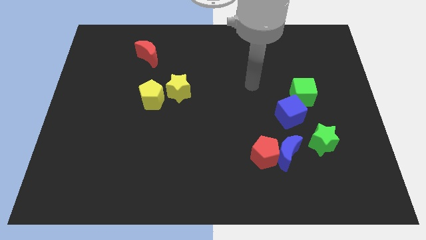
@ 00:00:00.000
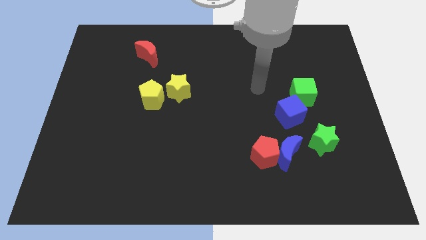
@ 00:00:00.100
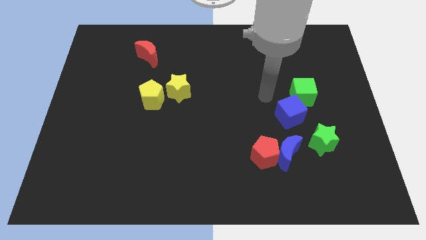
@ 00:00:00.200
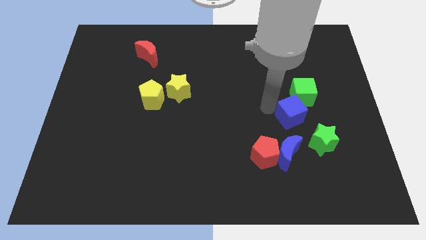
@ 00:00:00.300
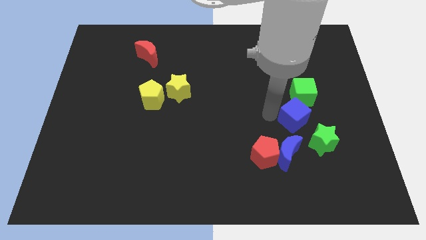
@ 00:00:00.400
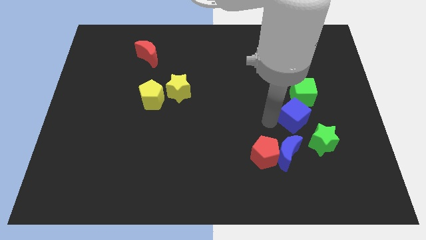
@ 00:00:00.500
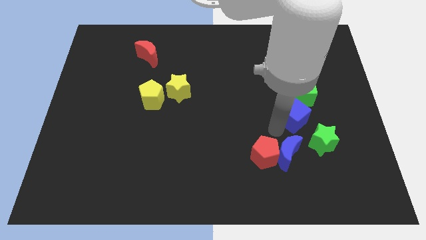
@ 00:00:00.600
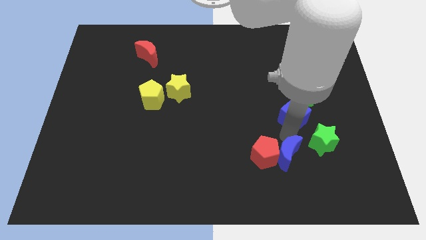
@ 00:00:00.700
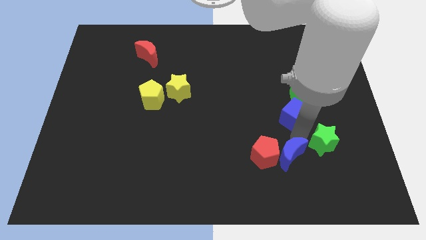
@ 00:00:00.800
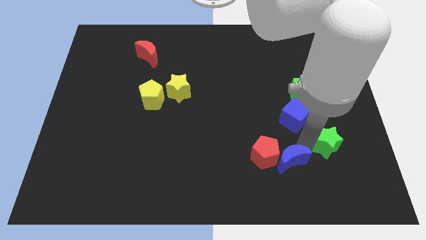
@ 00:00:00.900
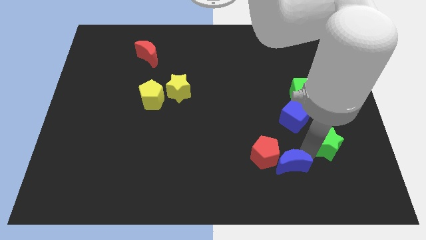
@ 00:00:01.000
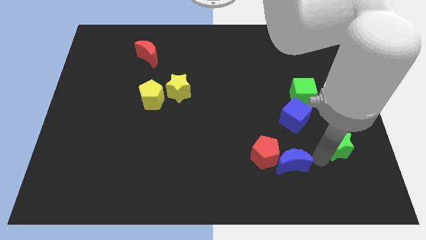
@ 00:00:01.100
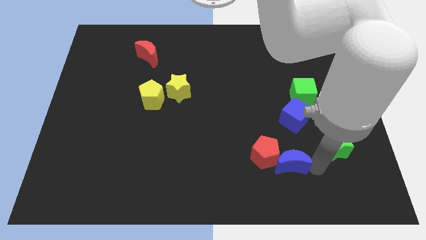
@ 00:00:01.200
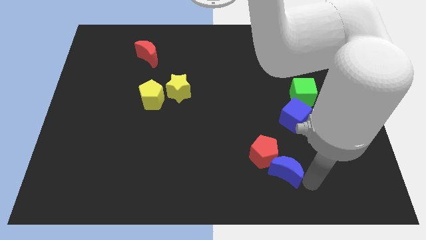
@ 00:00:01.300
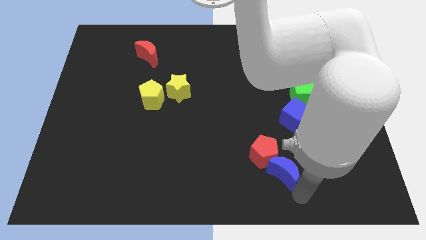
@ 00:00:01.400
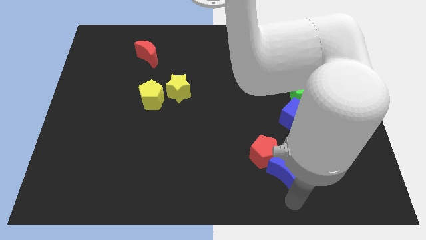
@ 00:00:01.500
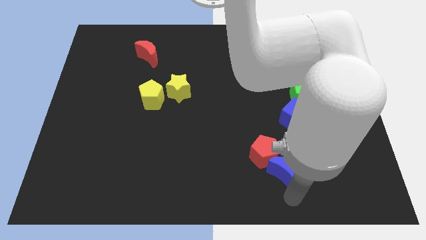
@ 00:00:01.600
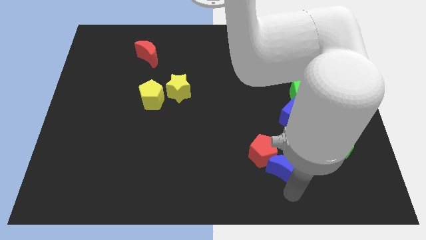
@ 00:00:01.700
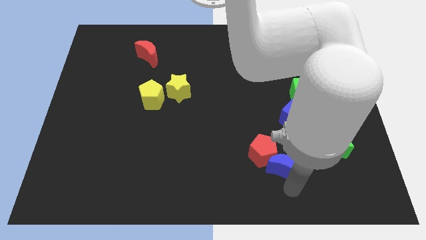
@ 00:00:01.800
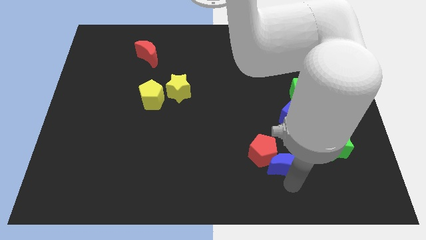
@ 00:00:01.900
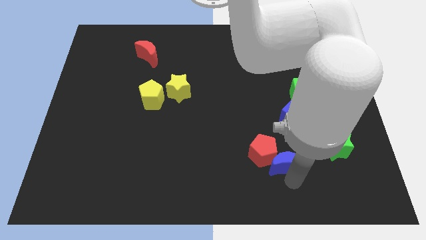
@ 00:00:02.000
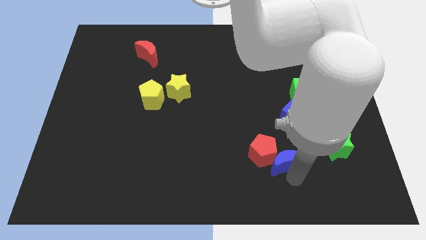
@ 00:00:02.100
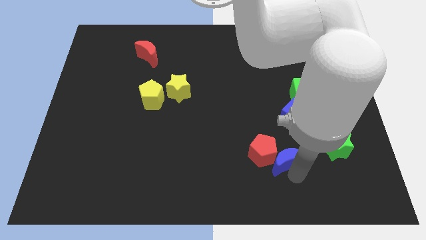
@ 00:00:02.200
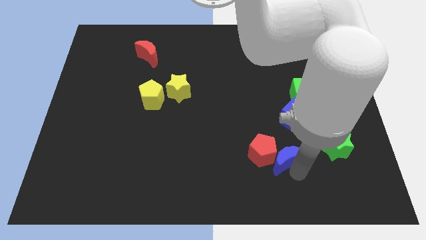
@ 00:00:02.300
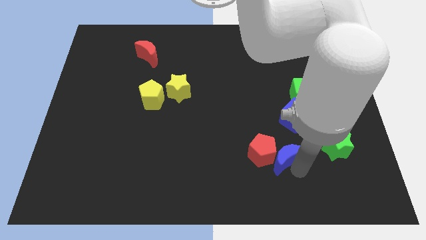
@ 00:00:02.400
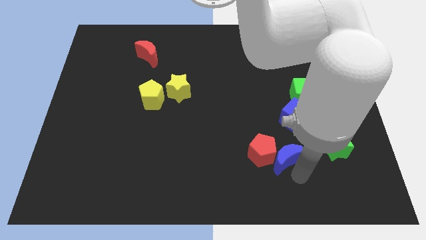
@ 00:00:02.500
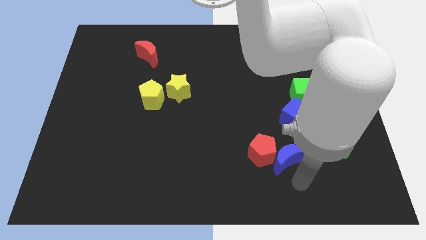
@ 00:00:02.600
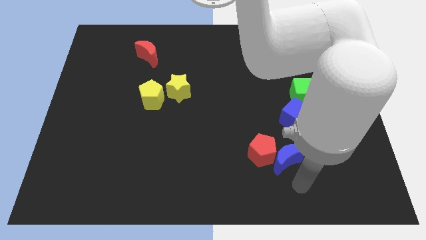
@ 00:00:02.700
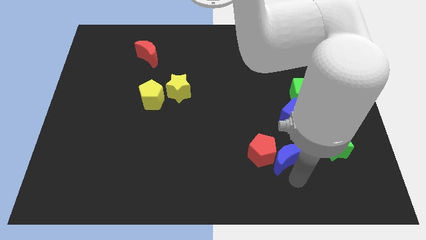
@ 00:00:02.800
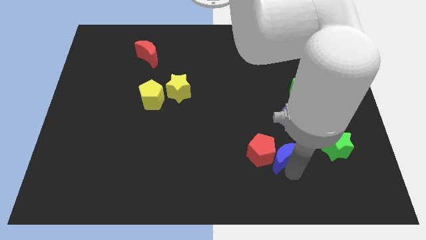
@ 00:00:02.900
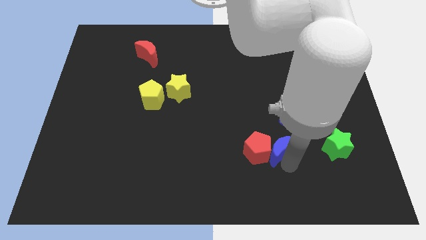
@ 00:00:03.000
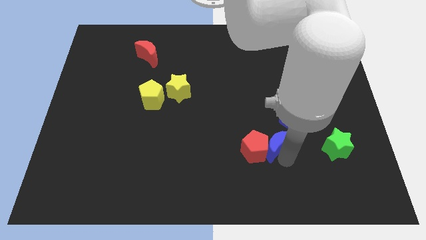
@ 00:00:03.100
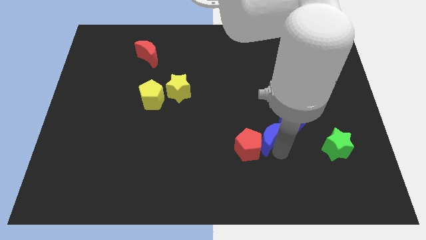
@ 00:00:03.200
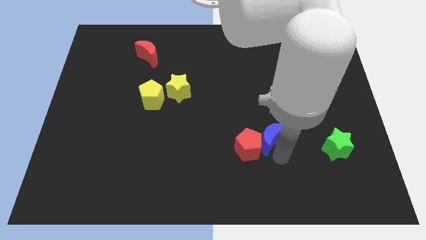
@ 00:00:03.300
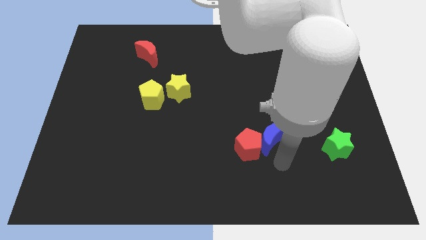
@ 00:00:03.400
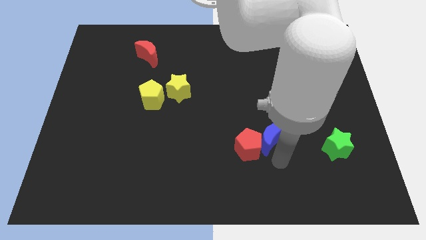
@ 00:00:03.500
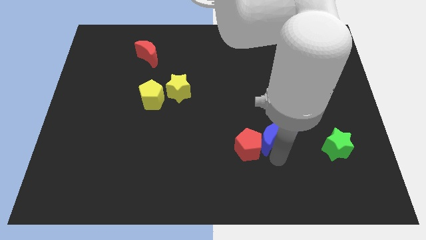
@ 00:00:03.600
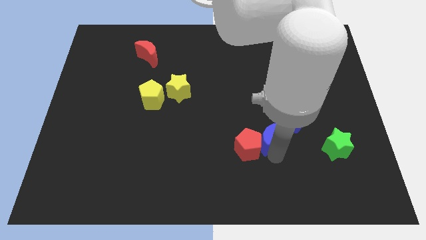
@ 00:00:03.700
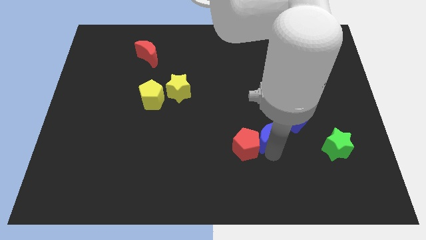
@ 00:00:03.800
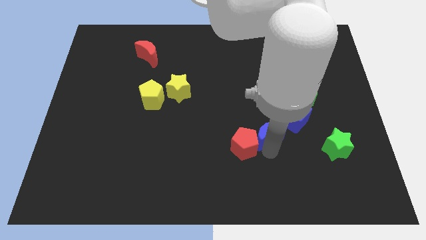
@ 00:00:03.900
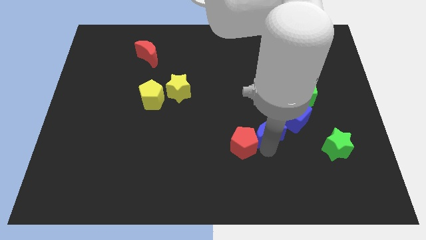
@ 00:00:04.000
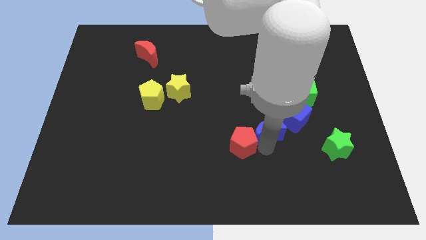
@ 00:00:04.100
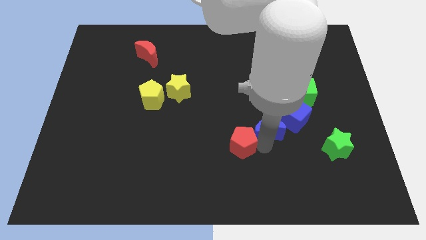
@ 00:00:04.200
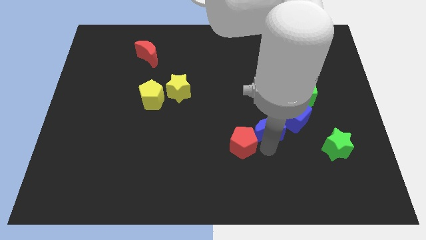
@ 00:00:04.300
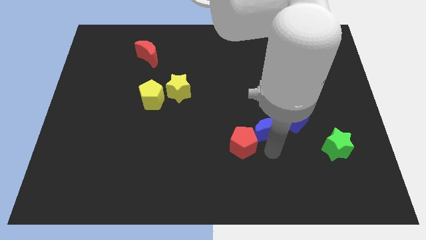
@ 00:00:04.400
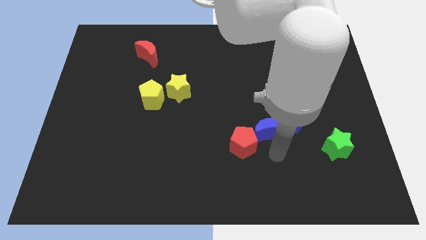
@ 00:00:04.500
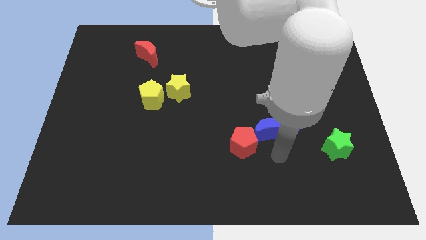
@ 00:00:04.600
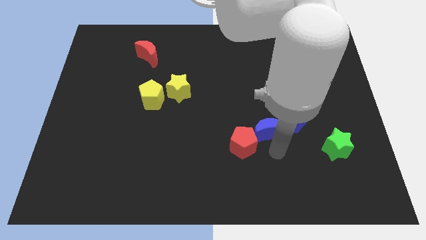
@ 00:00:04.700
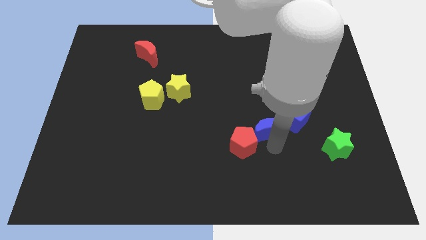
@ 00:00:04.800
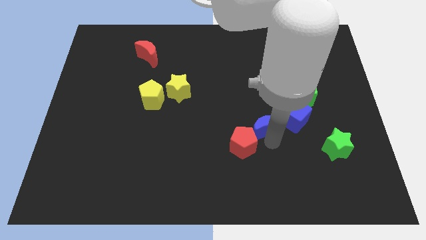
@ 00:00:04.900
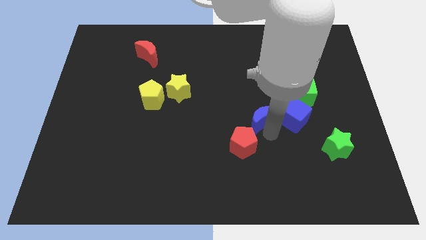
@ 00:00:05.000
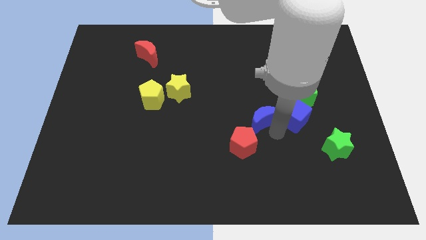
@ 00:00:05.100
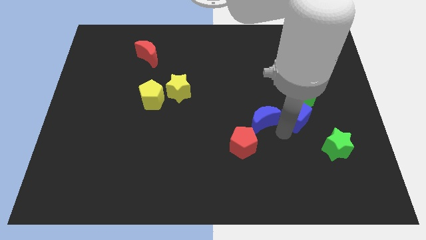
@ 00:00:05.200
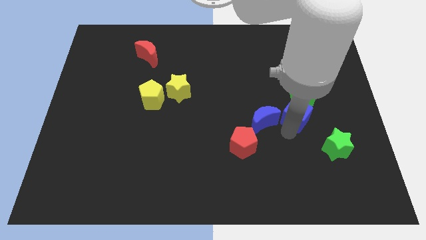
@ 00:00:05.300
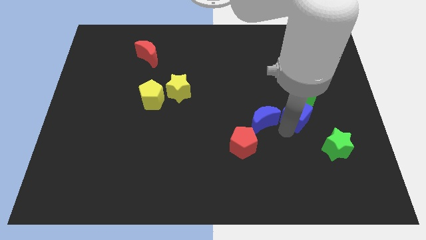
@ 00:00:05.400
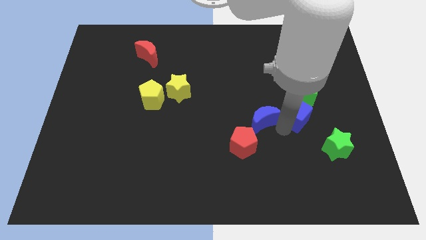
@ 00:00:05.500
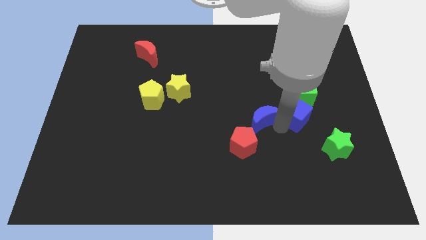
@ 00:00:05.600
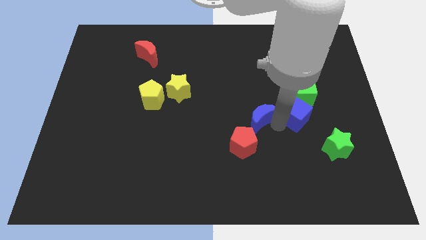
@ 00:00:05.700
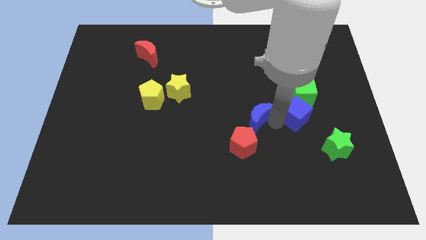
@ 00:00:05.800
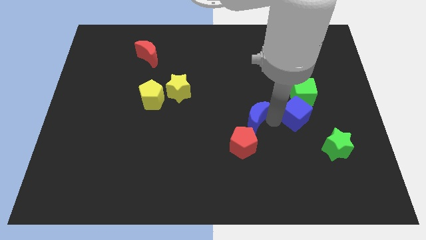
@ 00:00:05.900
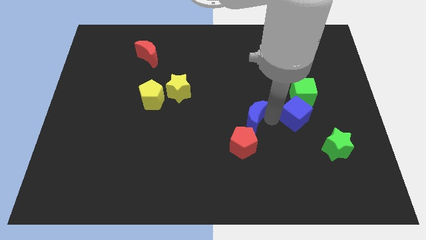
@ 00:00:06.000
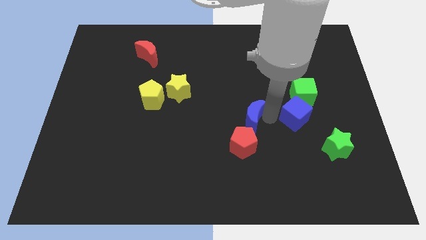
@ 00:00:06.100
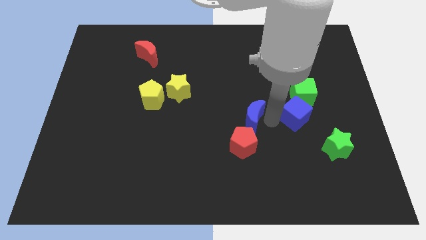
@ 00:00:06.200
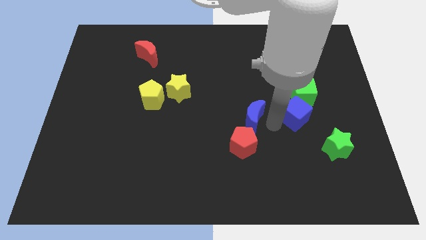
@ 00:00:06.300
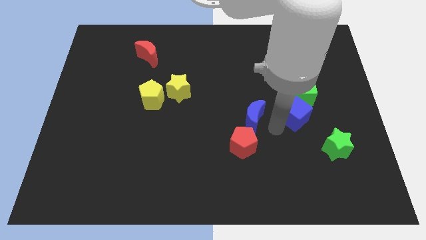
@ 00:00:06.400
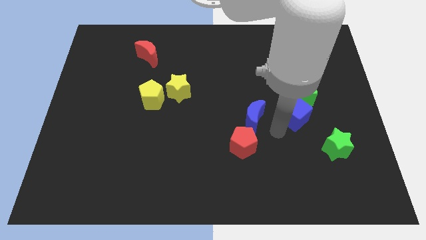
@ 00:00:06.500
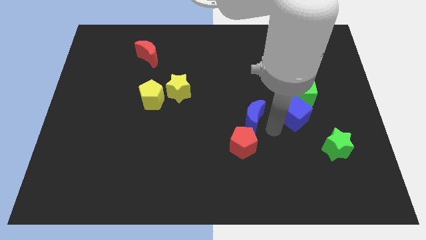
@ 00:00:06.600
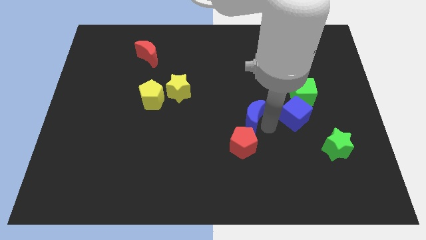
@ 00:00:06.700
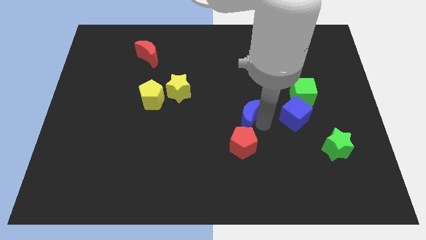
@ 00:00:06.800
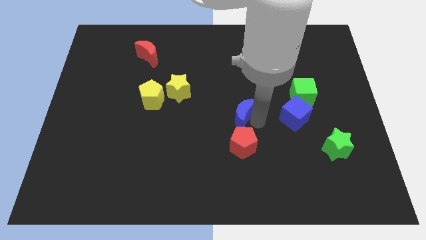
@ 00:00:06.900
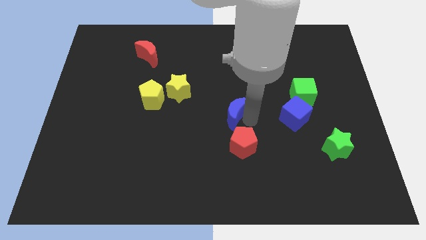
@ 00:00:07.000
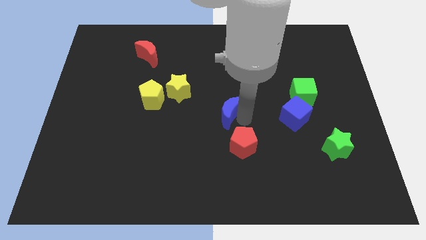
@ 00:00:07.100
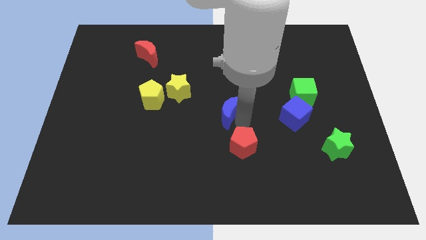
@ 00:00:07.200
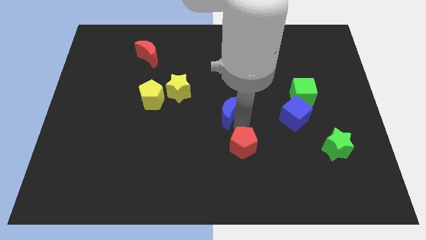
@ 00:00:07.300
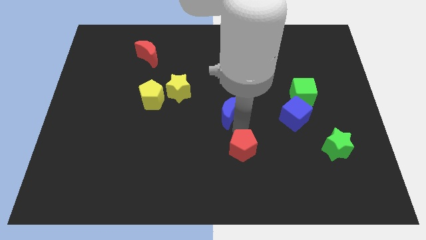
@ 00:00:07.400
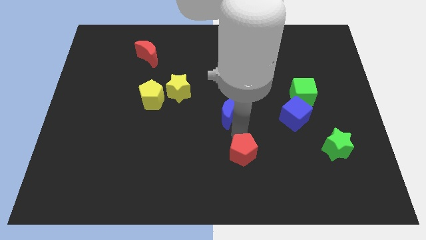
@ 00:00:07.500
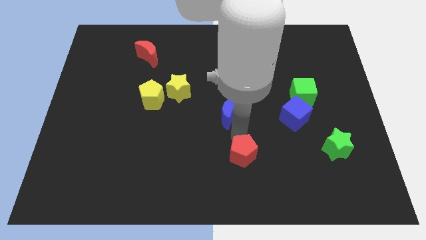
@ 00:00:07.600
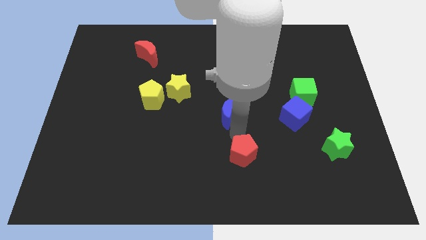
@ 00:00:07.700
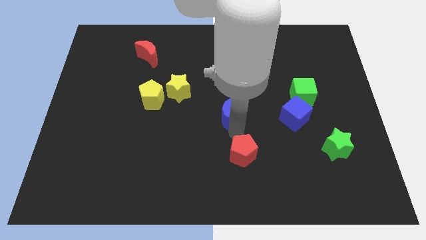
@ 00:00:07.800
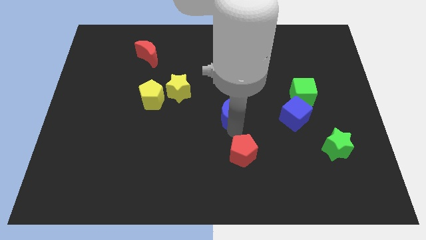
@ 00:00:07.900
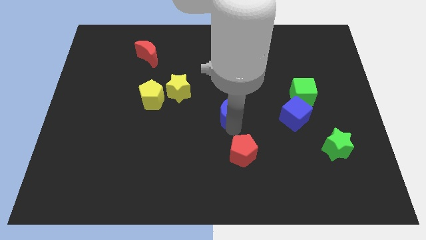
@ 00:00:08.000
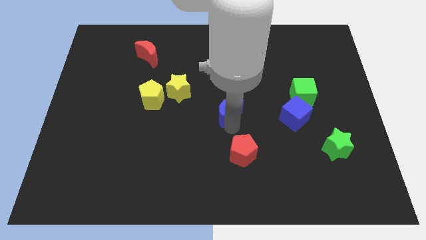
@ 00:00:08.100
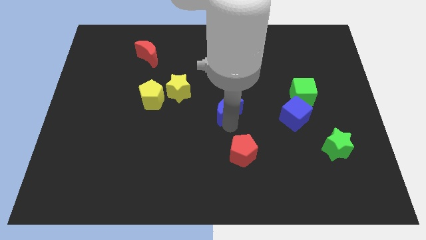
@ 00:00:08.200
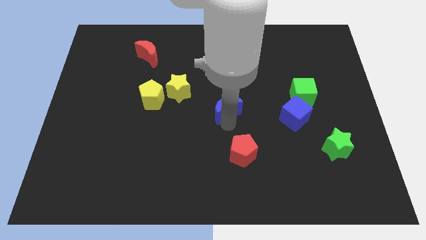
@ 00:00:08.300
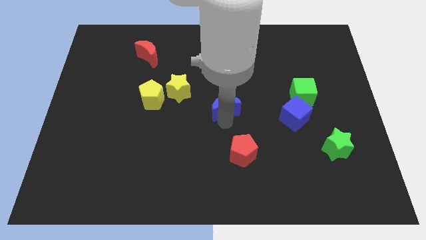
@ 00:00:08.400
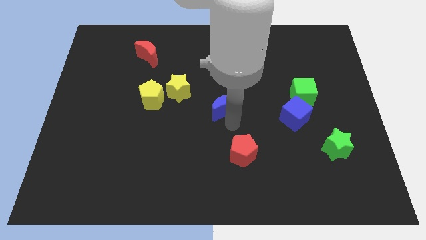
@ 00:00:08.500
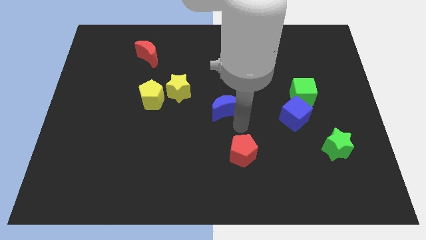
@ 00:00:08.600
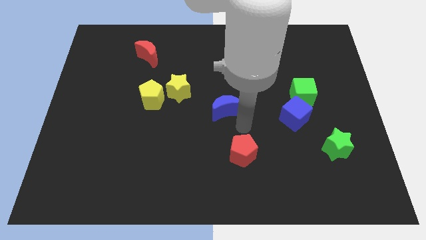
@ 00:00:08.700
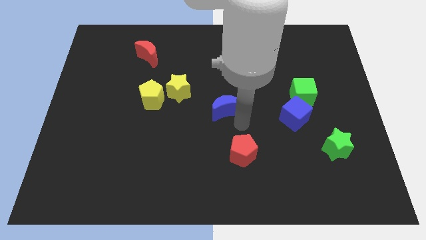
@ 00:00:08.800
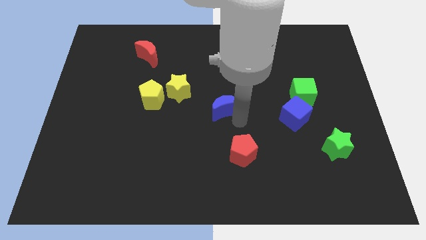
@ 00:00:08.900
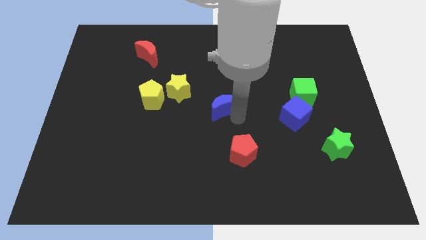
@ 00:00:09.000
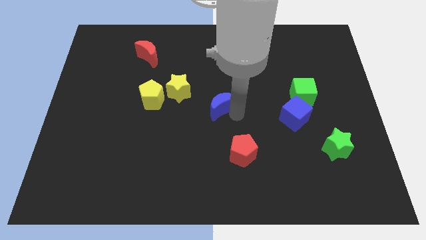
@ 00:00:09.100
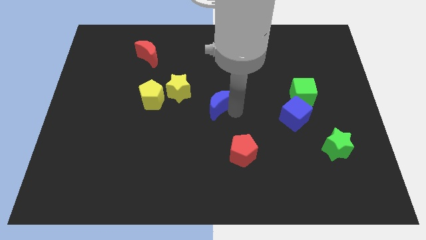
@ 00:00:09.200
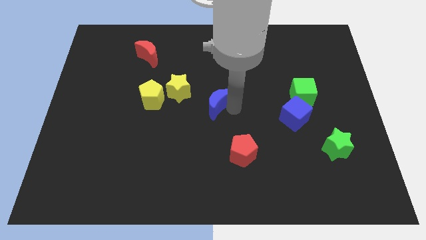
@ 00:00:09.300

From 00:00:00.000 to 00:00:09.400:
slide the blue moon up and then left
